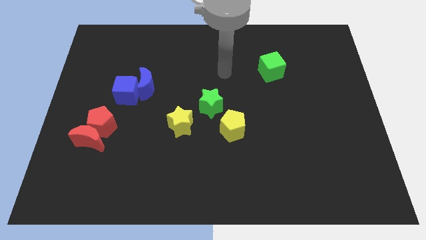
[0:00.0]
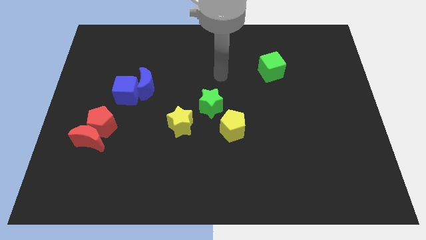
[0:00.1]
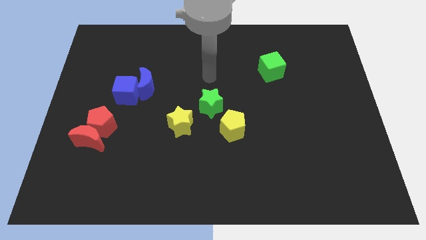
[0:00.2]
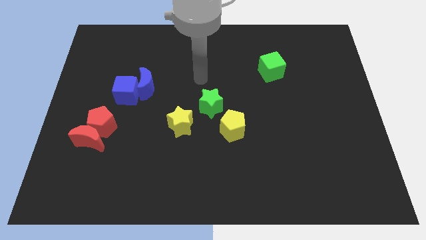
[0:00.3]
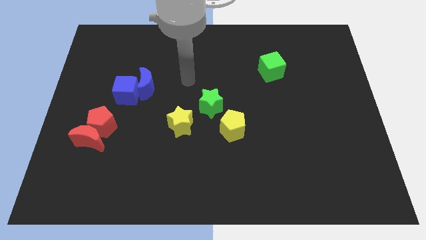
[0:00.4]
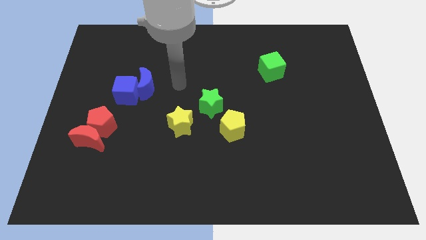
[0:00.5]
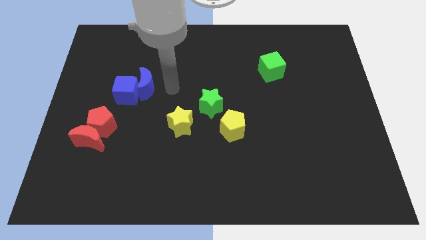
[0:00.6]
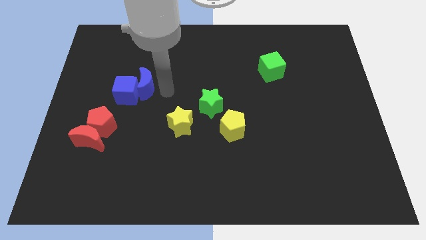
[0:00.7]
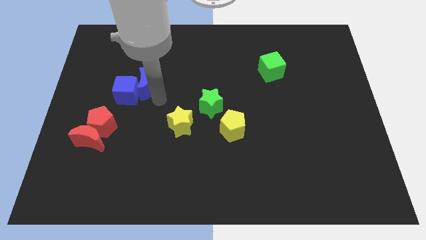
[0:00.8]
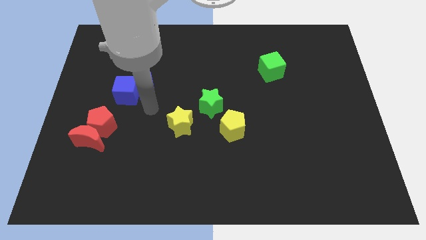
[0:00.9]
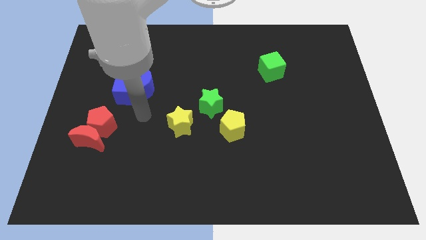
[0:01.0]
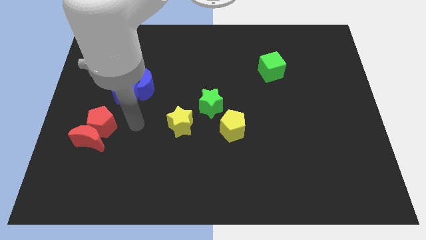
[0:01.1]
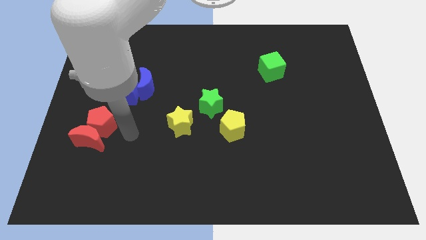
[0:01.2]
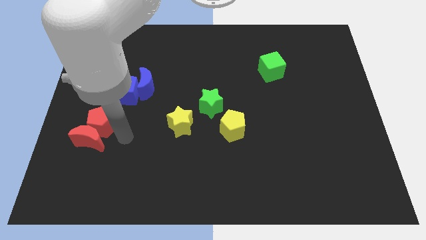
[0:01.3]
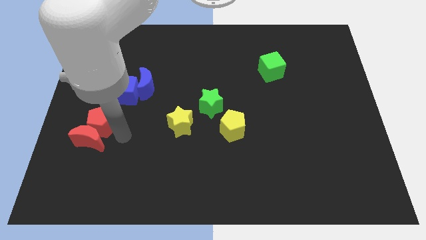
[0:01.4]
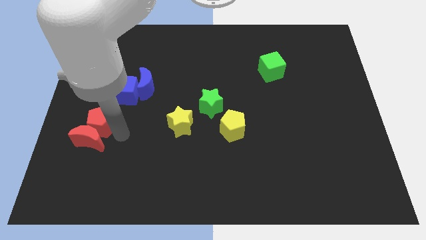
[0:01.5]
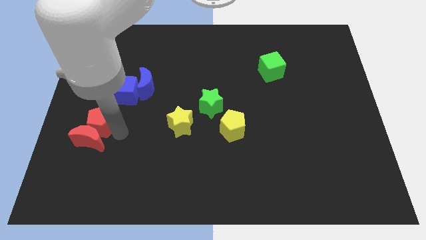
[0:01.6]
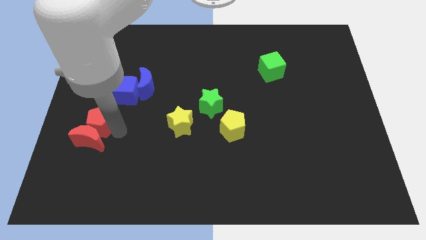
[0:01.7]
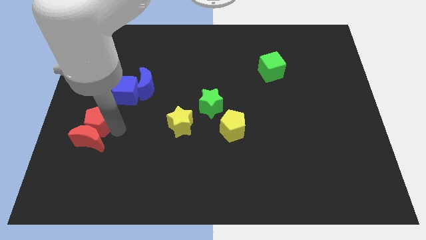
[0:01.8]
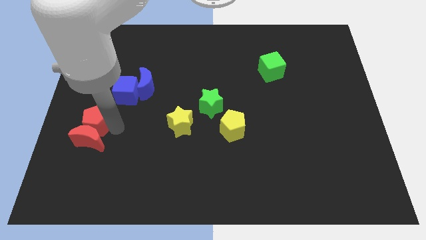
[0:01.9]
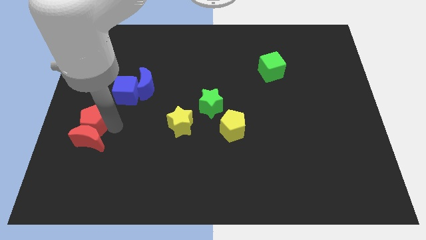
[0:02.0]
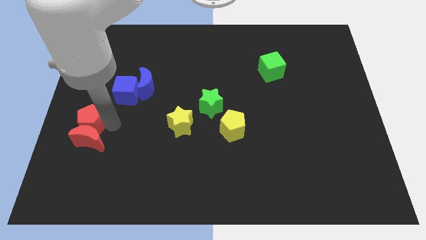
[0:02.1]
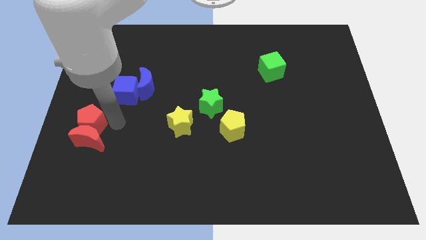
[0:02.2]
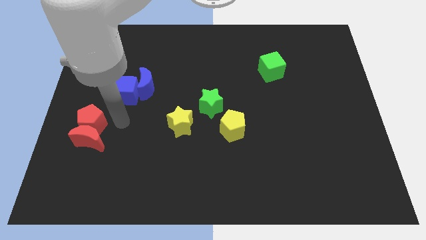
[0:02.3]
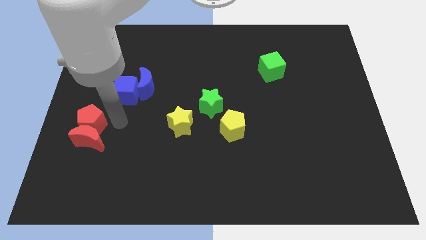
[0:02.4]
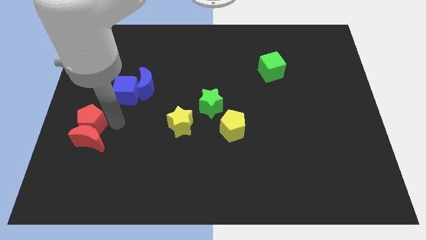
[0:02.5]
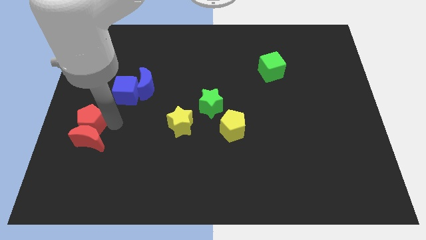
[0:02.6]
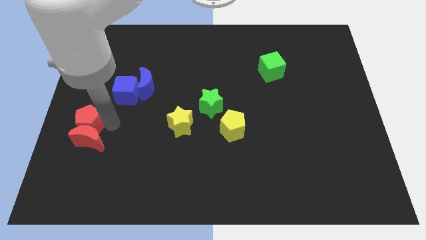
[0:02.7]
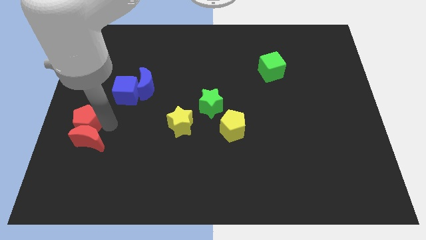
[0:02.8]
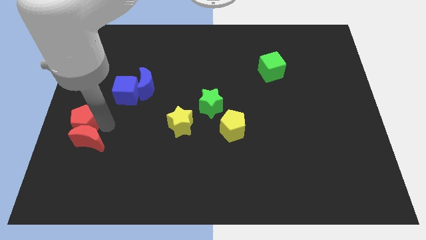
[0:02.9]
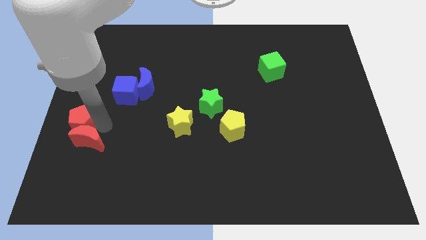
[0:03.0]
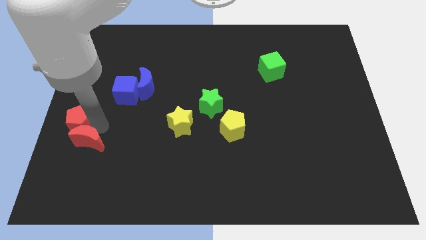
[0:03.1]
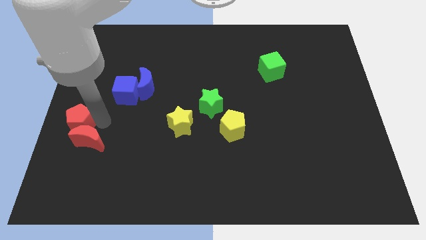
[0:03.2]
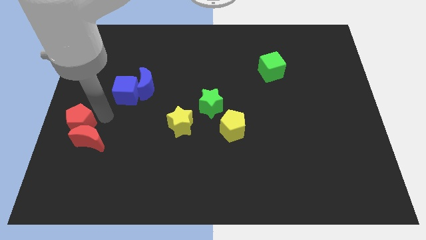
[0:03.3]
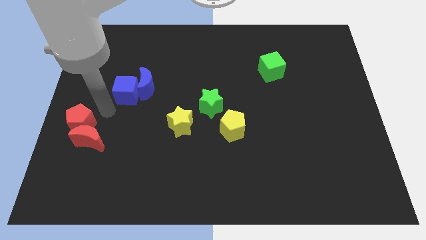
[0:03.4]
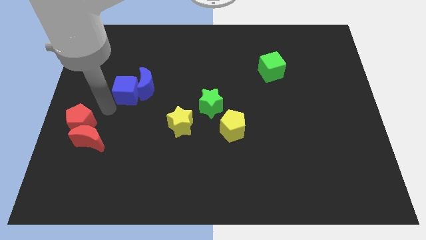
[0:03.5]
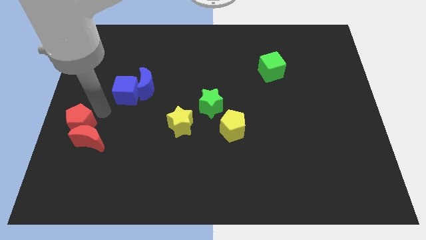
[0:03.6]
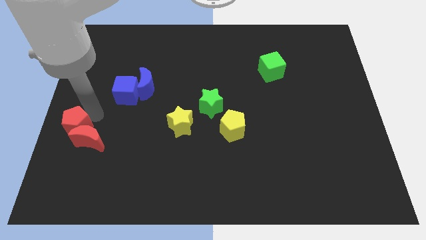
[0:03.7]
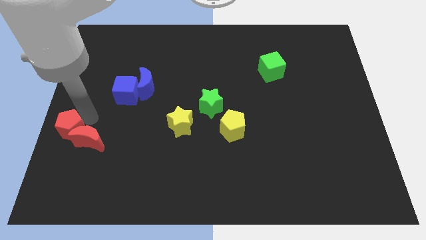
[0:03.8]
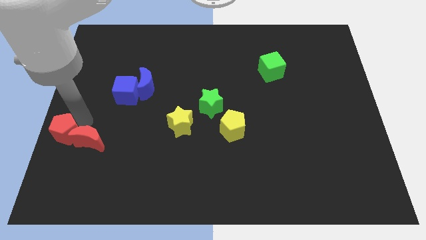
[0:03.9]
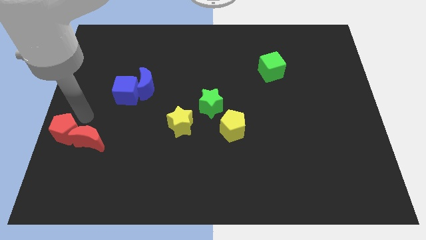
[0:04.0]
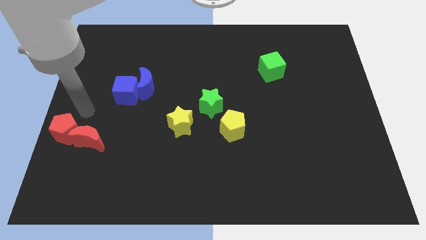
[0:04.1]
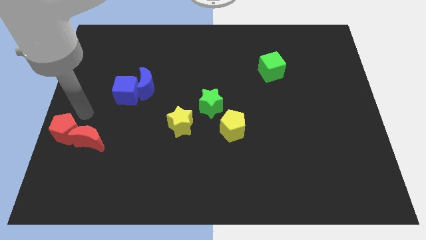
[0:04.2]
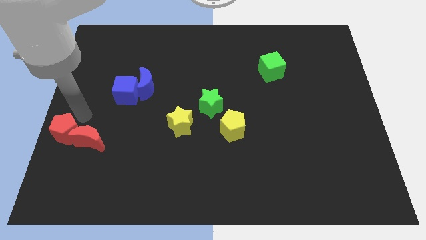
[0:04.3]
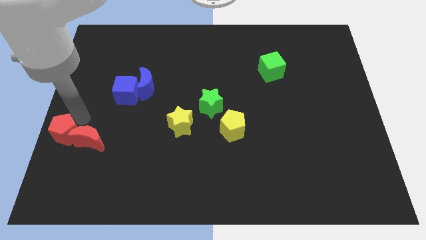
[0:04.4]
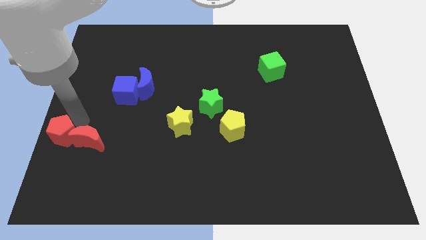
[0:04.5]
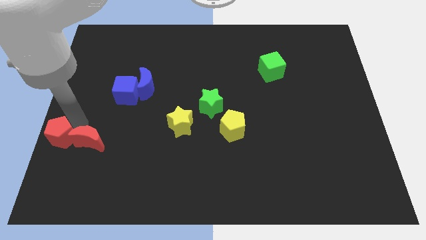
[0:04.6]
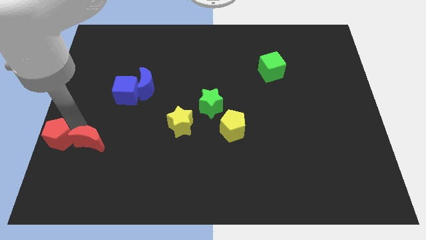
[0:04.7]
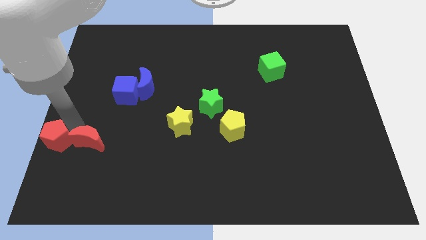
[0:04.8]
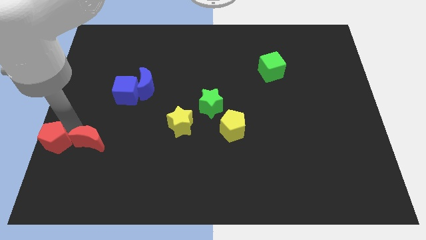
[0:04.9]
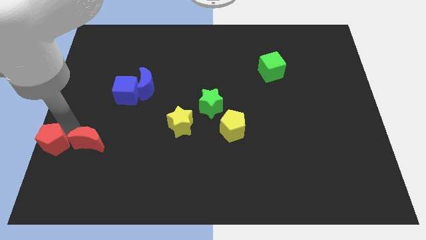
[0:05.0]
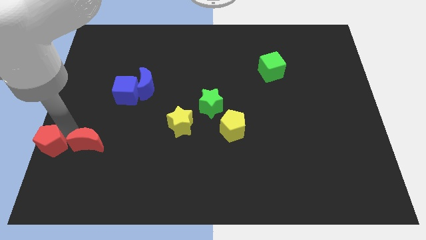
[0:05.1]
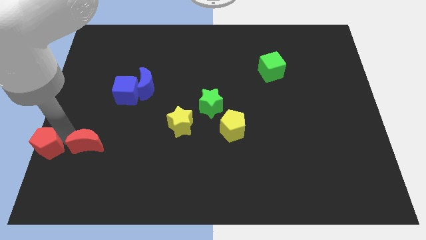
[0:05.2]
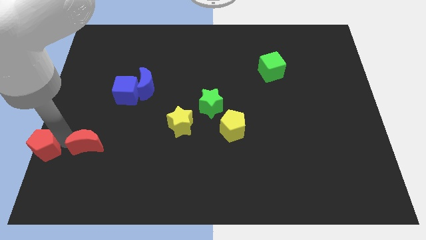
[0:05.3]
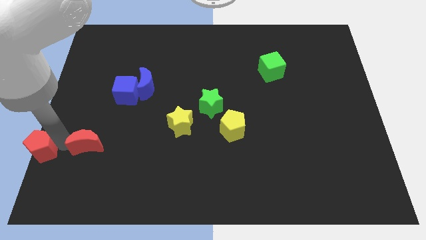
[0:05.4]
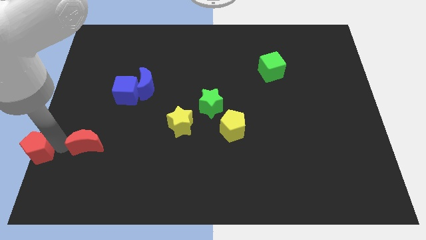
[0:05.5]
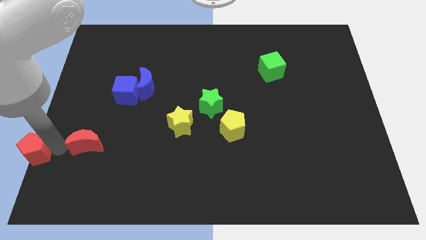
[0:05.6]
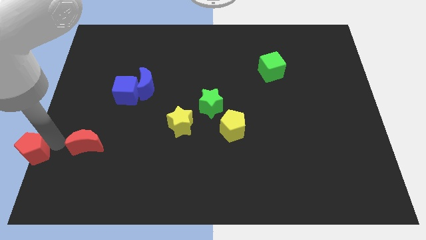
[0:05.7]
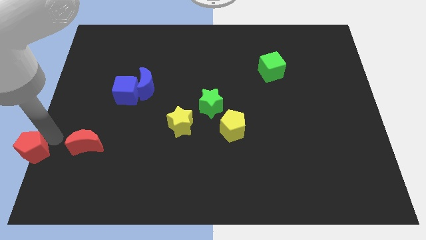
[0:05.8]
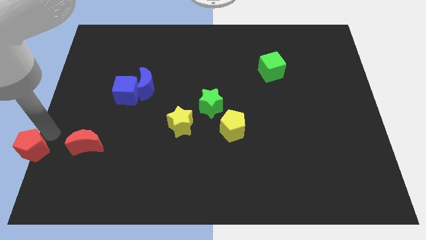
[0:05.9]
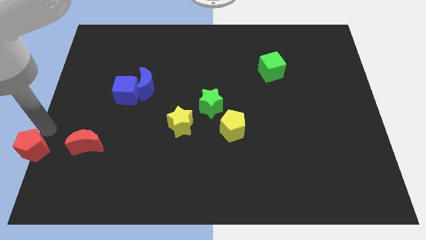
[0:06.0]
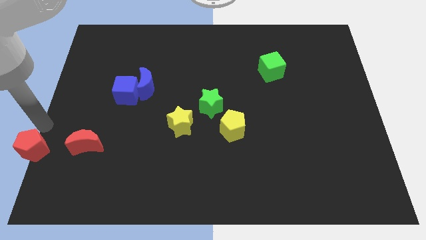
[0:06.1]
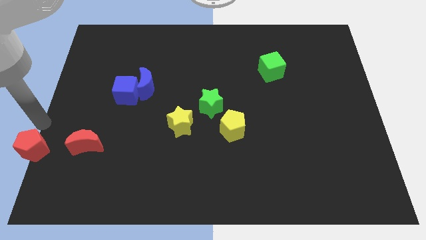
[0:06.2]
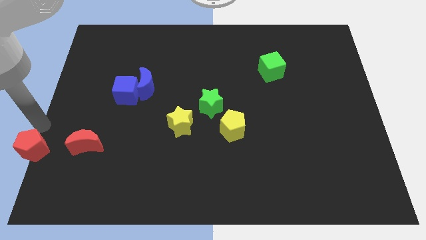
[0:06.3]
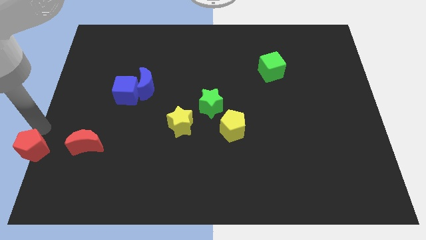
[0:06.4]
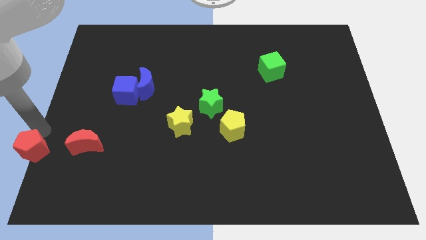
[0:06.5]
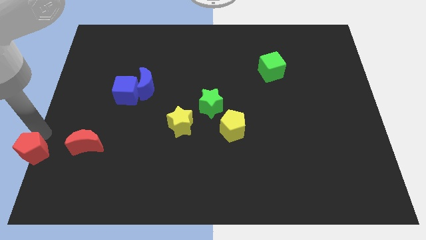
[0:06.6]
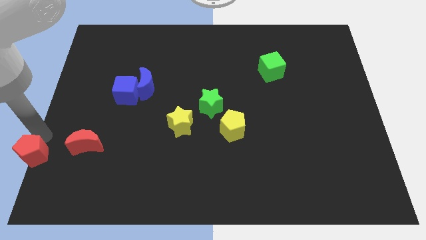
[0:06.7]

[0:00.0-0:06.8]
move the red pentagon to the bottom left corner
